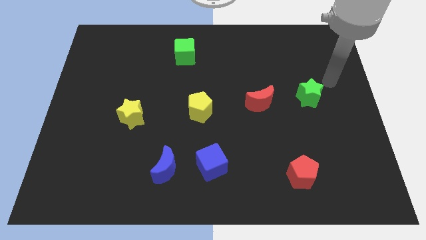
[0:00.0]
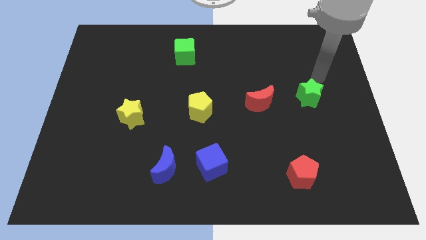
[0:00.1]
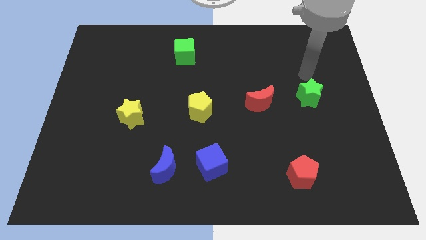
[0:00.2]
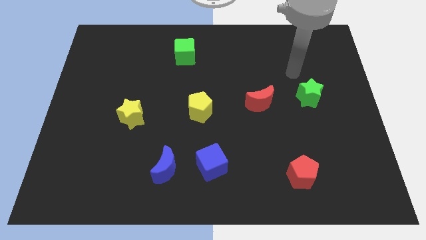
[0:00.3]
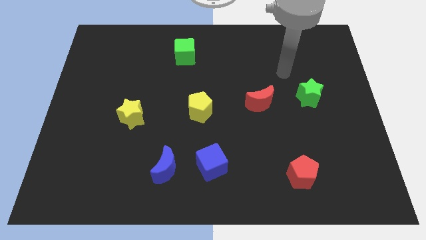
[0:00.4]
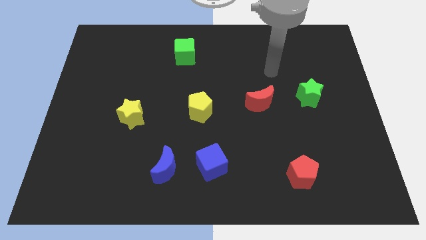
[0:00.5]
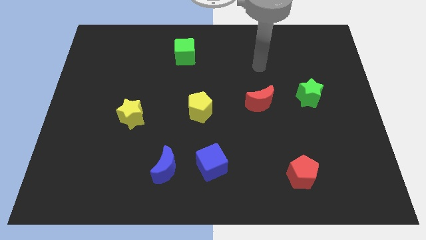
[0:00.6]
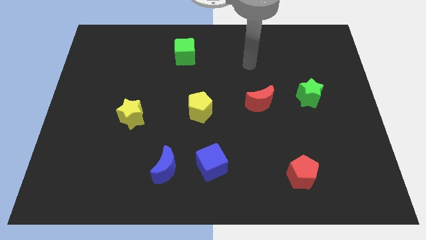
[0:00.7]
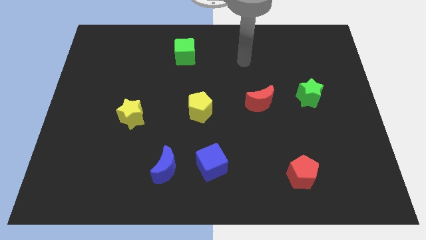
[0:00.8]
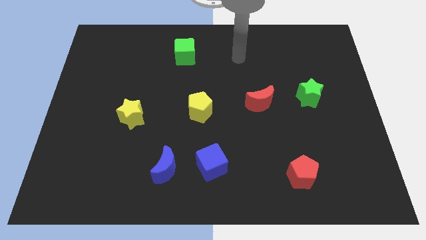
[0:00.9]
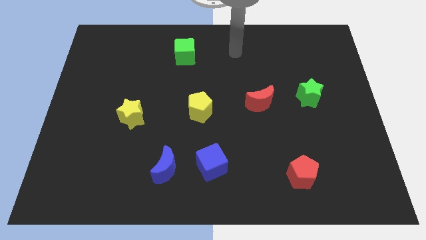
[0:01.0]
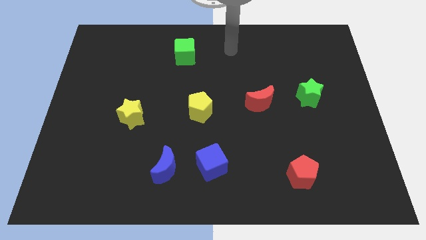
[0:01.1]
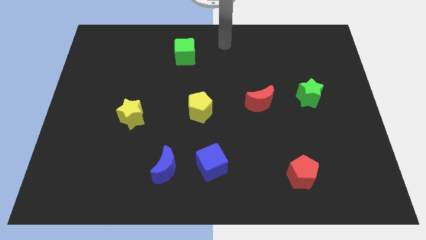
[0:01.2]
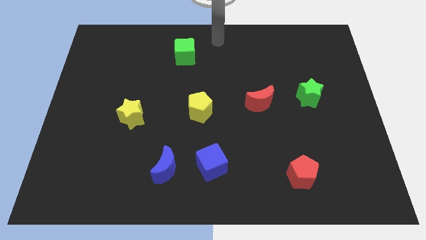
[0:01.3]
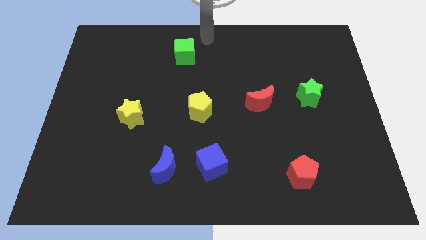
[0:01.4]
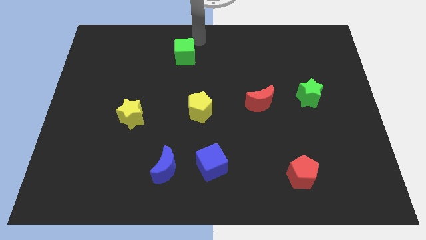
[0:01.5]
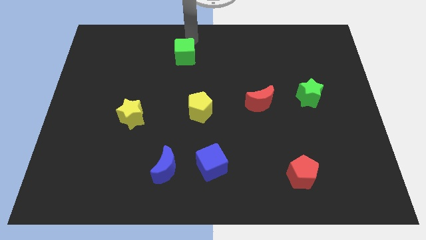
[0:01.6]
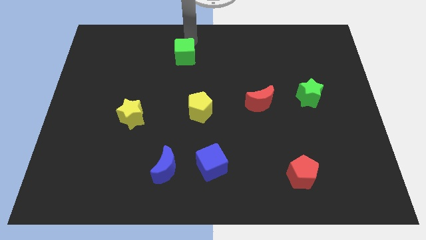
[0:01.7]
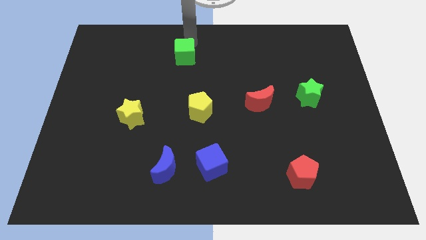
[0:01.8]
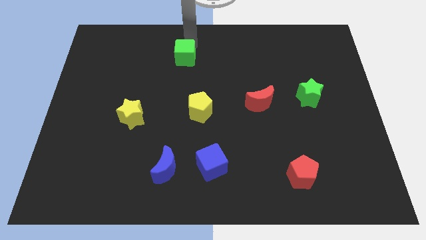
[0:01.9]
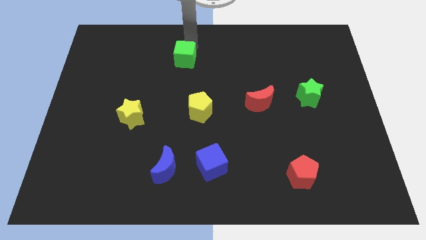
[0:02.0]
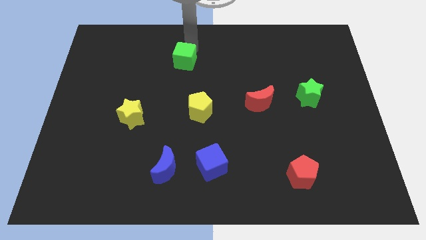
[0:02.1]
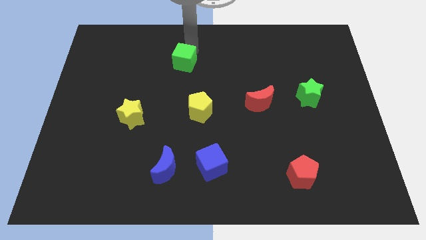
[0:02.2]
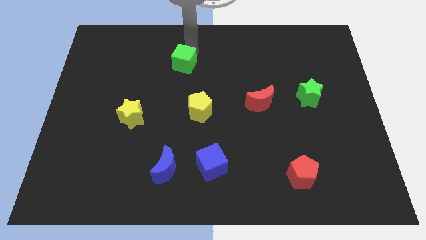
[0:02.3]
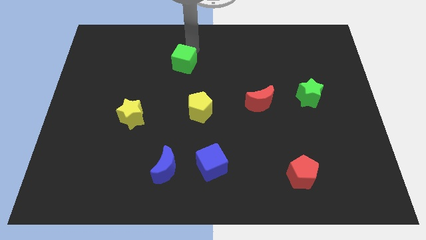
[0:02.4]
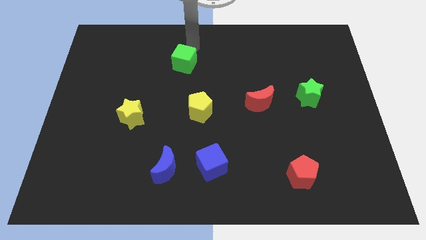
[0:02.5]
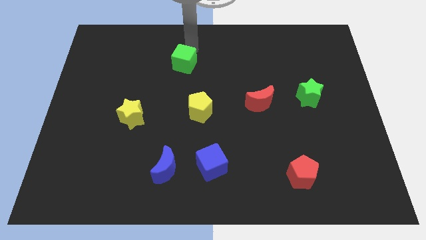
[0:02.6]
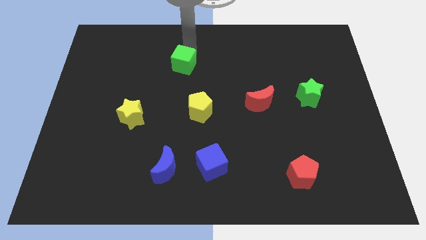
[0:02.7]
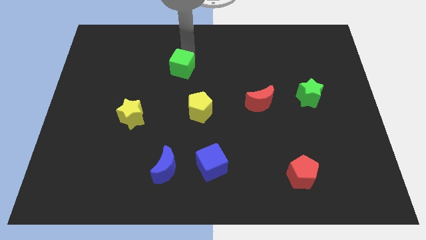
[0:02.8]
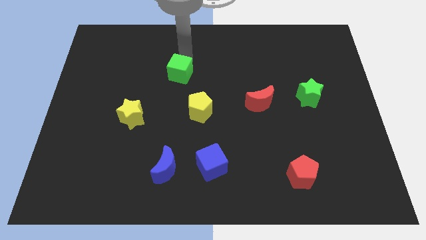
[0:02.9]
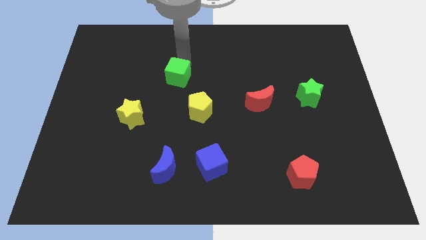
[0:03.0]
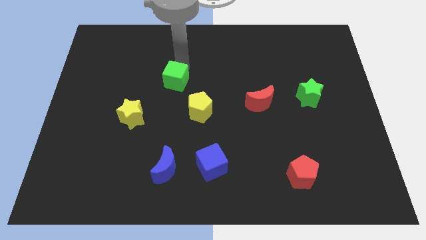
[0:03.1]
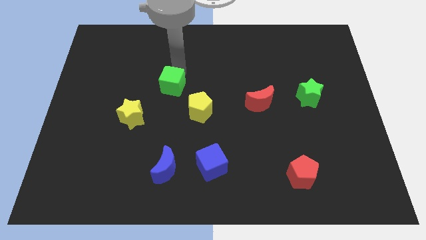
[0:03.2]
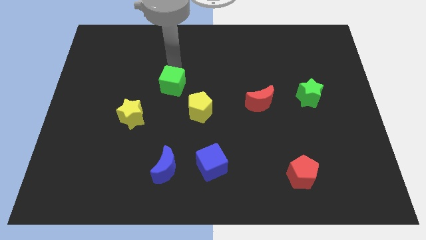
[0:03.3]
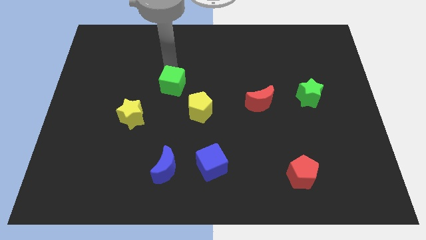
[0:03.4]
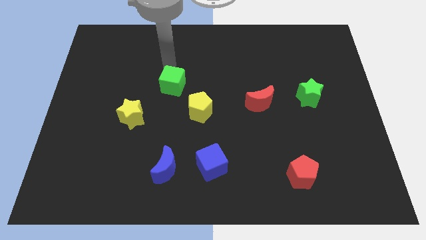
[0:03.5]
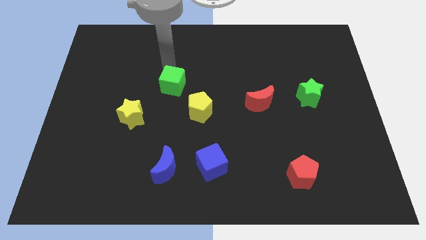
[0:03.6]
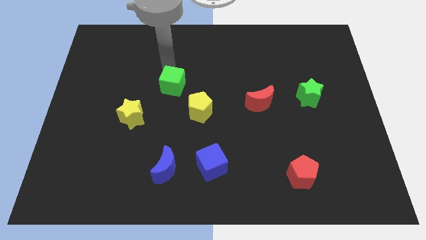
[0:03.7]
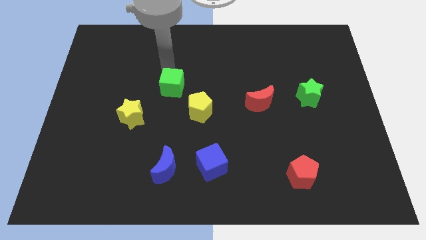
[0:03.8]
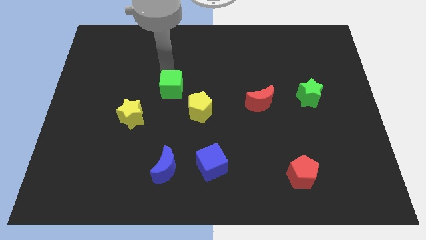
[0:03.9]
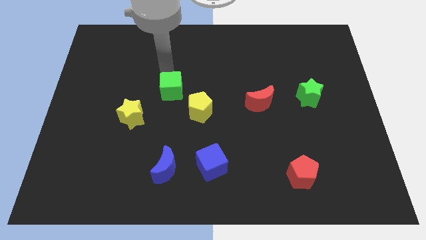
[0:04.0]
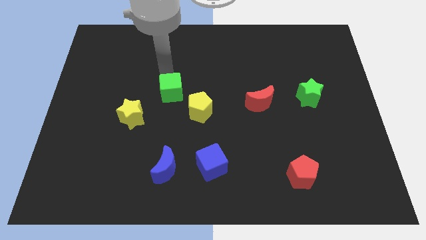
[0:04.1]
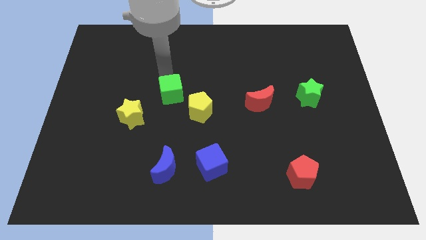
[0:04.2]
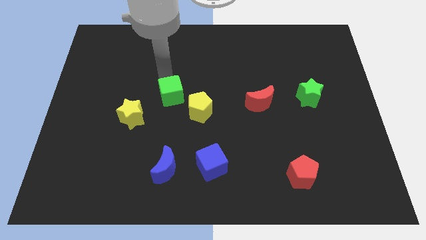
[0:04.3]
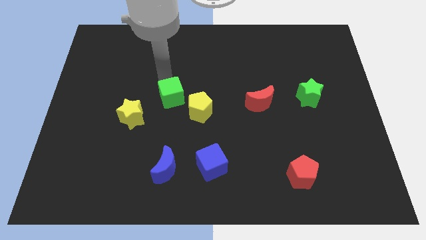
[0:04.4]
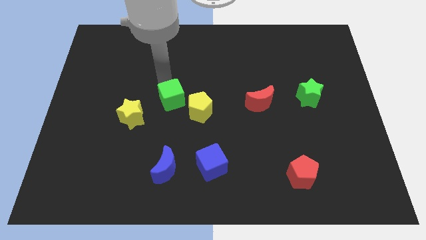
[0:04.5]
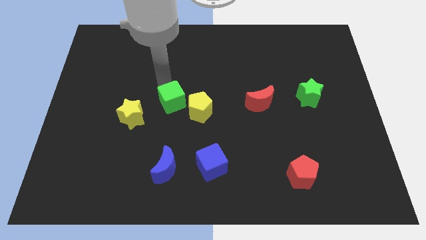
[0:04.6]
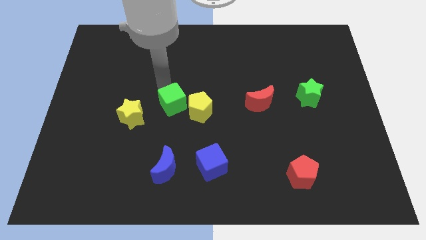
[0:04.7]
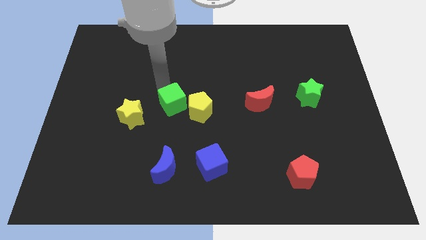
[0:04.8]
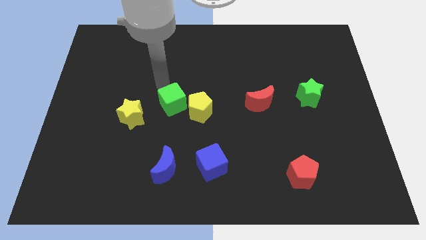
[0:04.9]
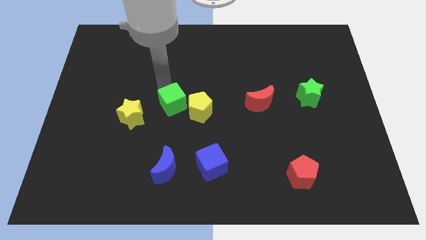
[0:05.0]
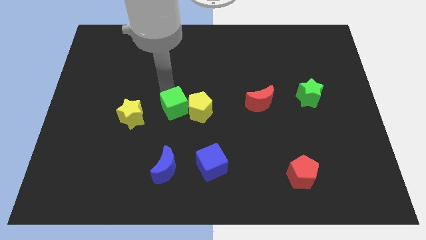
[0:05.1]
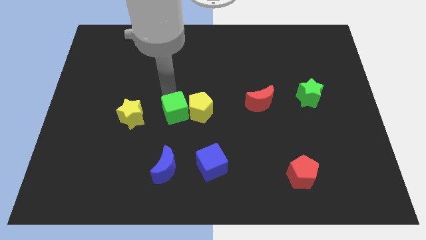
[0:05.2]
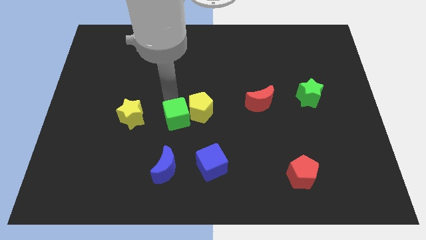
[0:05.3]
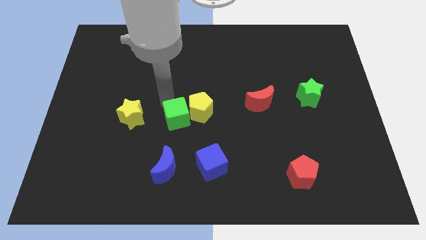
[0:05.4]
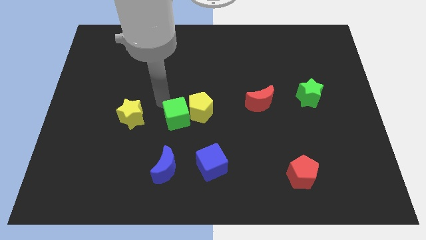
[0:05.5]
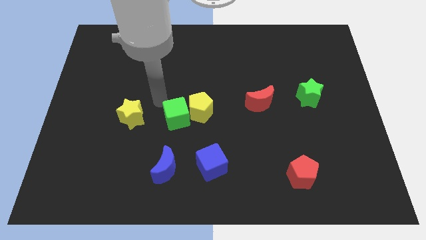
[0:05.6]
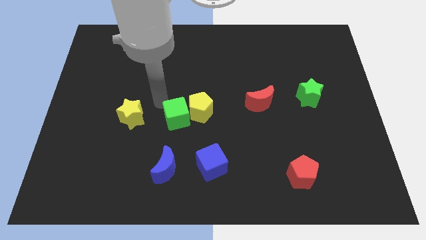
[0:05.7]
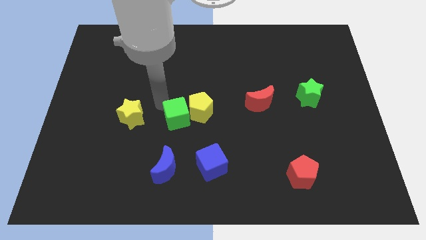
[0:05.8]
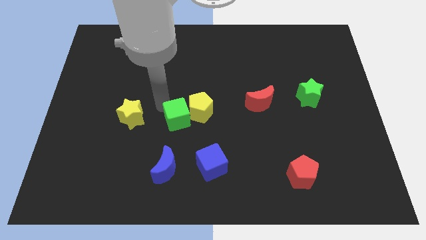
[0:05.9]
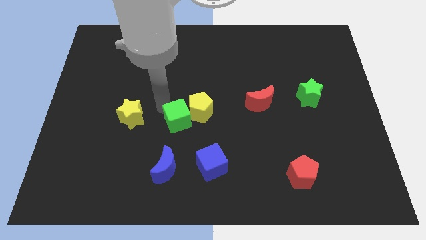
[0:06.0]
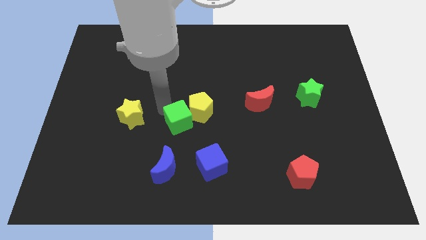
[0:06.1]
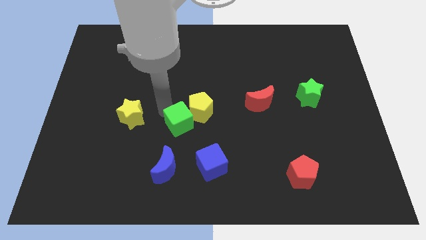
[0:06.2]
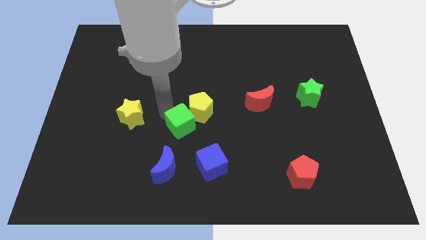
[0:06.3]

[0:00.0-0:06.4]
push the green cube to the top left of the blue cube
